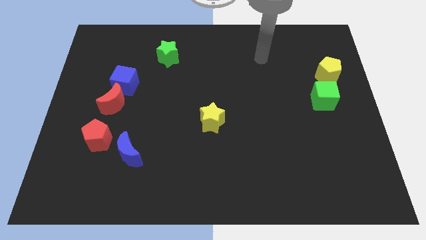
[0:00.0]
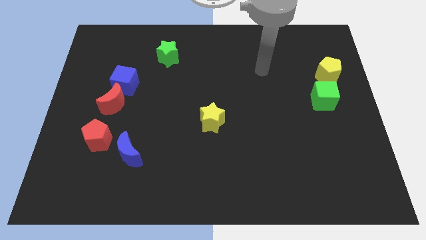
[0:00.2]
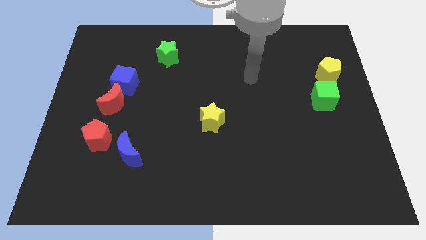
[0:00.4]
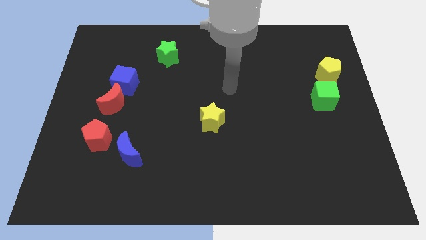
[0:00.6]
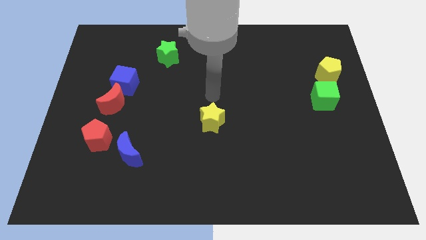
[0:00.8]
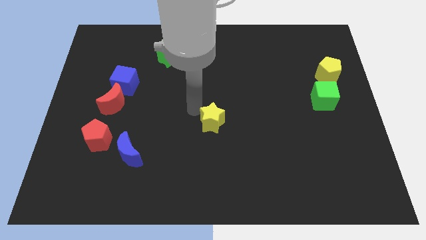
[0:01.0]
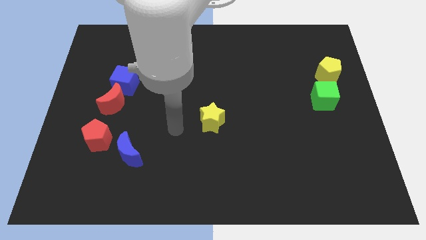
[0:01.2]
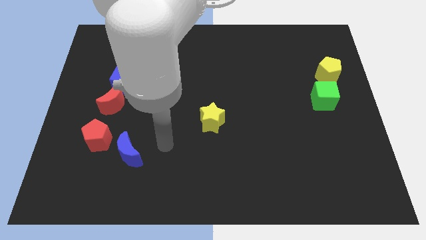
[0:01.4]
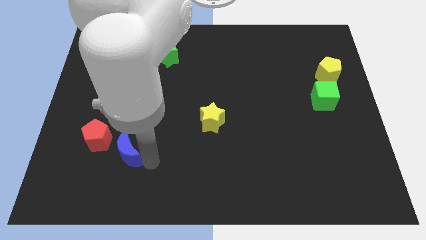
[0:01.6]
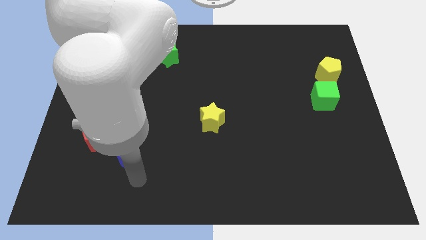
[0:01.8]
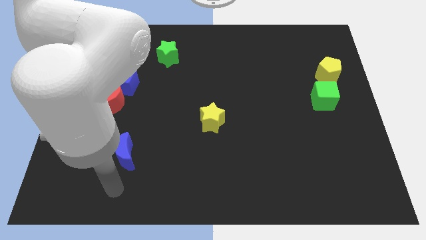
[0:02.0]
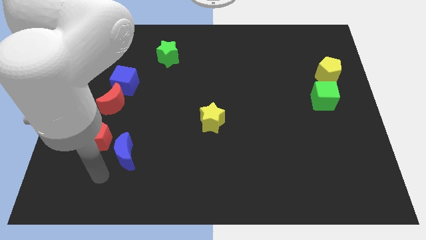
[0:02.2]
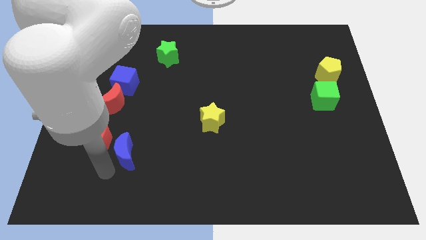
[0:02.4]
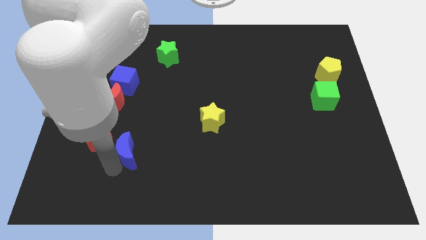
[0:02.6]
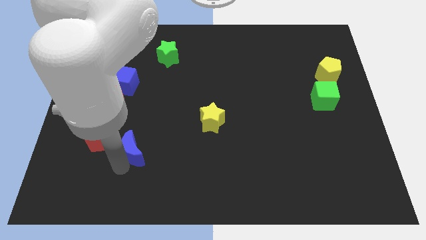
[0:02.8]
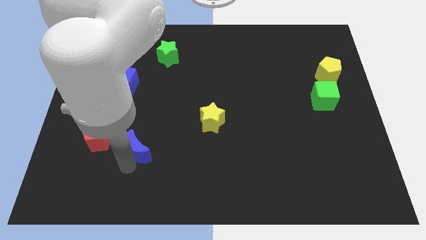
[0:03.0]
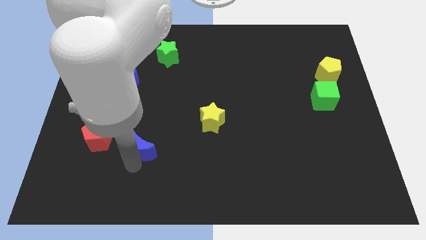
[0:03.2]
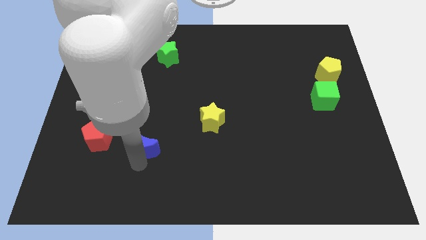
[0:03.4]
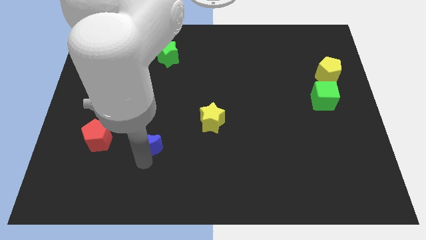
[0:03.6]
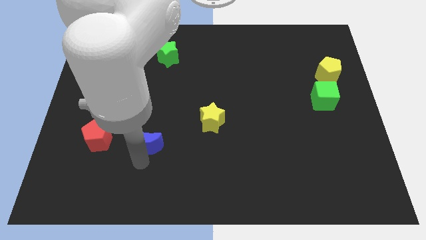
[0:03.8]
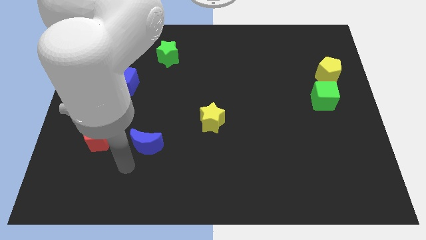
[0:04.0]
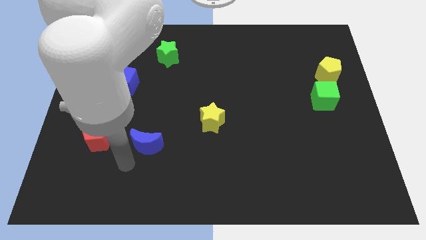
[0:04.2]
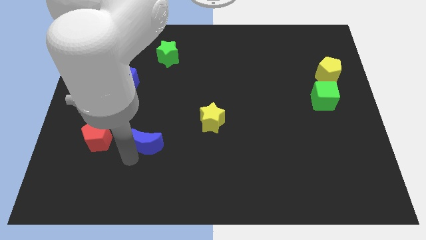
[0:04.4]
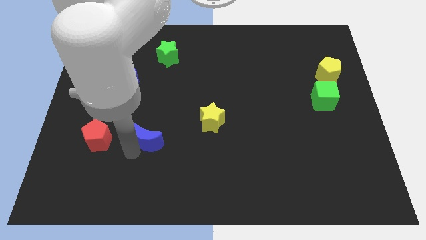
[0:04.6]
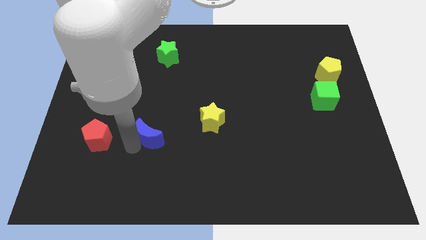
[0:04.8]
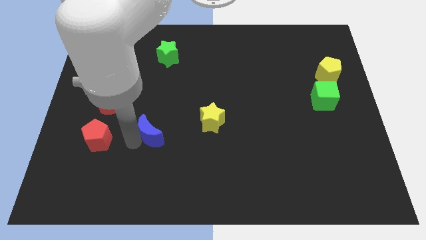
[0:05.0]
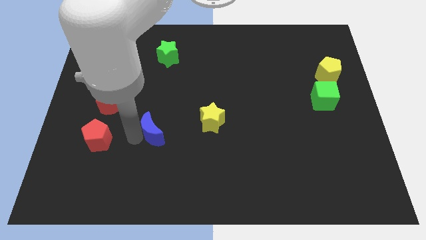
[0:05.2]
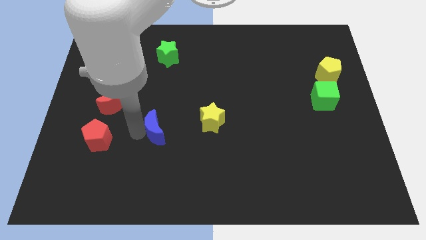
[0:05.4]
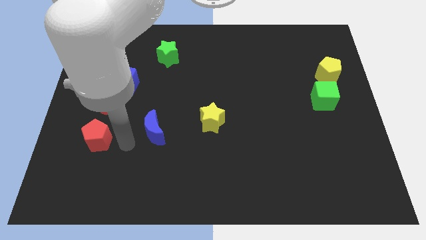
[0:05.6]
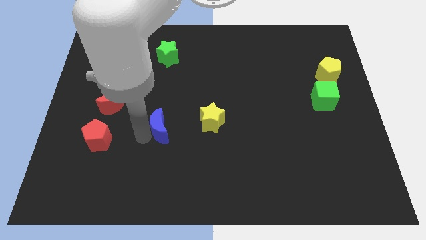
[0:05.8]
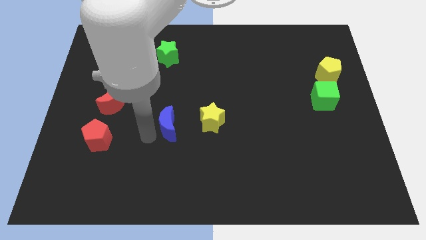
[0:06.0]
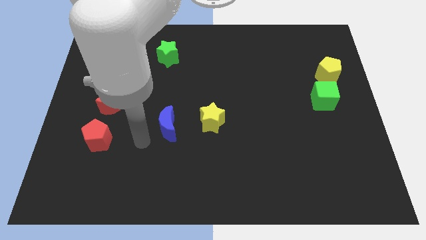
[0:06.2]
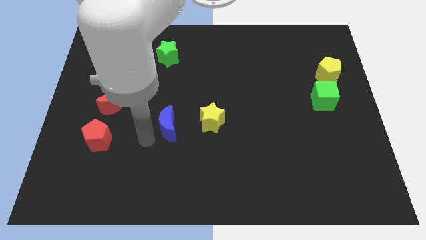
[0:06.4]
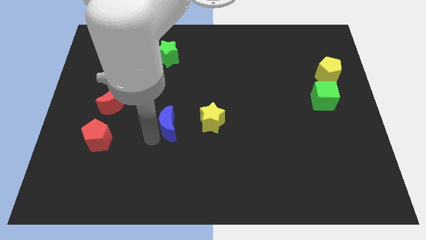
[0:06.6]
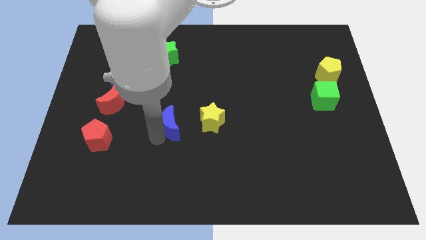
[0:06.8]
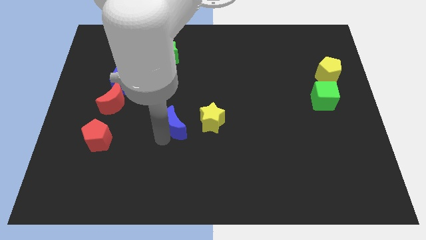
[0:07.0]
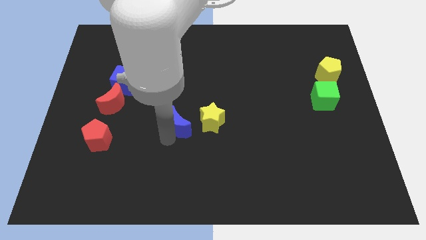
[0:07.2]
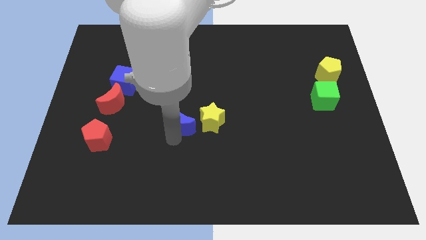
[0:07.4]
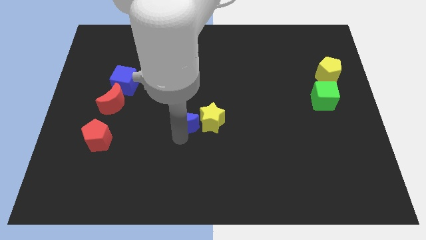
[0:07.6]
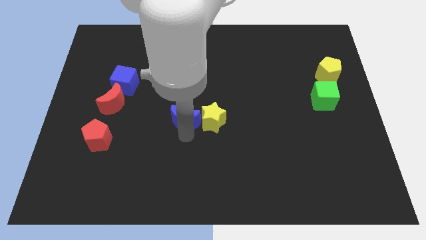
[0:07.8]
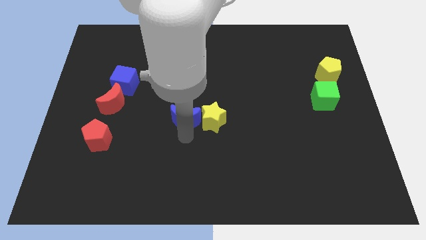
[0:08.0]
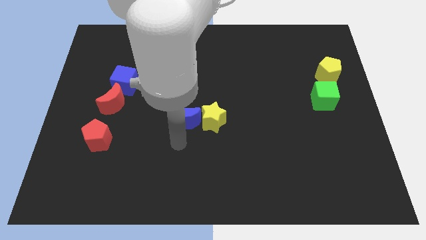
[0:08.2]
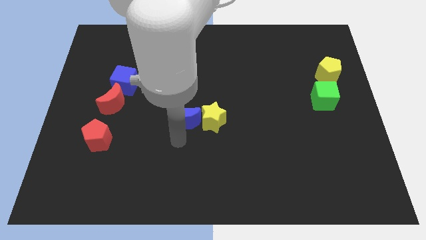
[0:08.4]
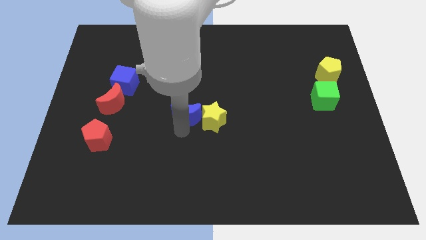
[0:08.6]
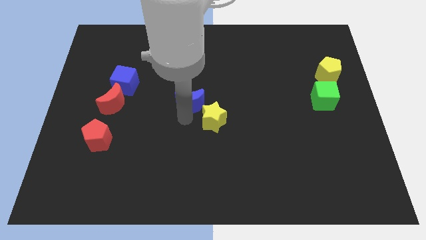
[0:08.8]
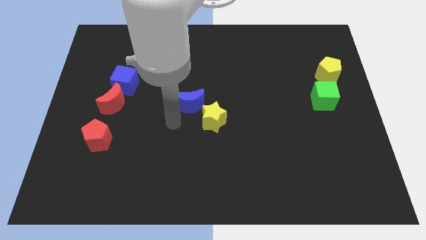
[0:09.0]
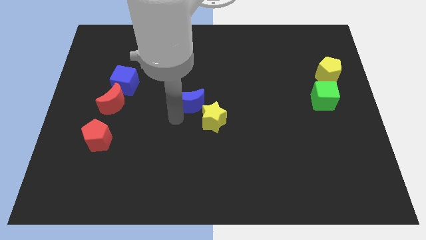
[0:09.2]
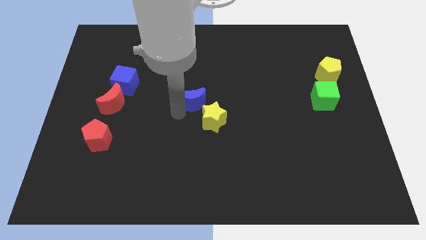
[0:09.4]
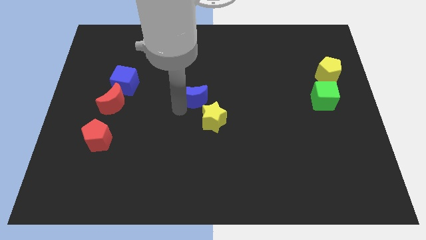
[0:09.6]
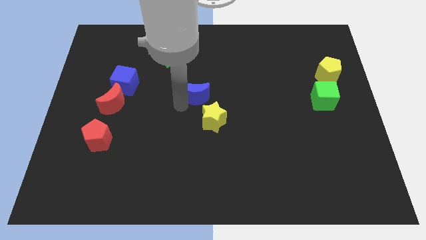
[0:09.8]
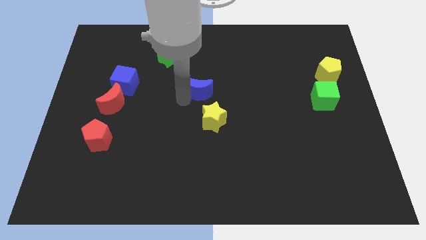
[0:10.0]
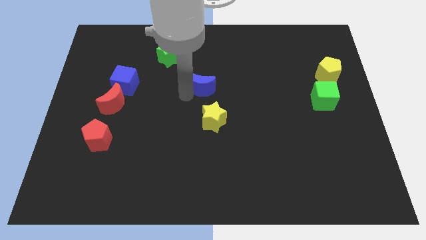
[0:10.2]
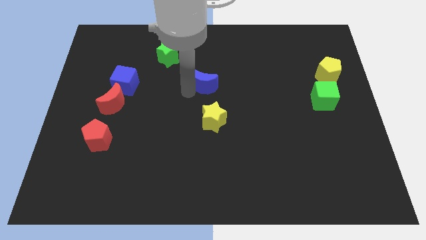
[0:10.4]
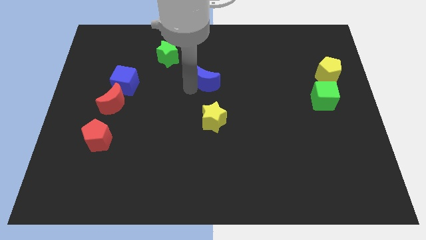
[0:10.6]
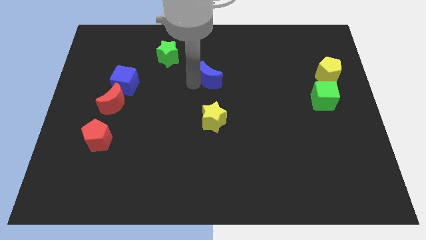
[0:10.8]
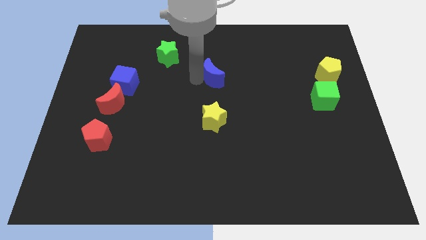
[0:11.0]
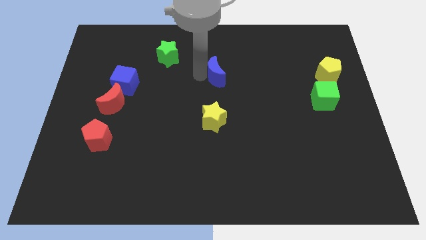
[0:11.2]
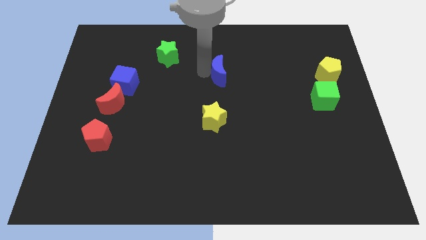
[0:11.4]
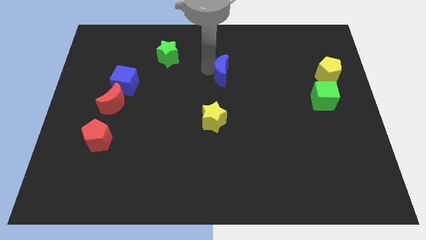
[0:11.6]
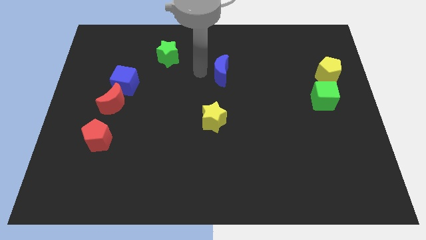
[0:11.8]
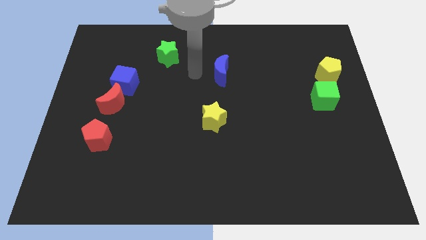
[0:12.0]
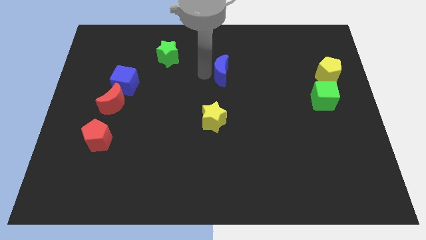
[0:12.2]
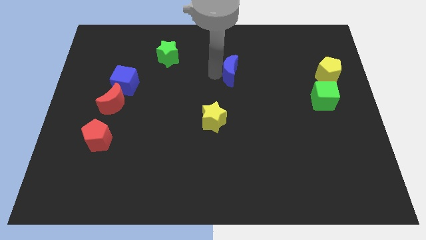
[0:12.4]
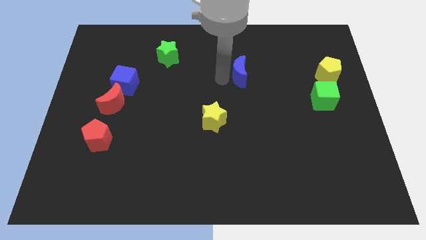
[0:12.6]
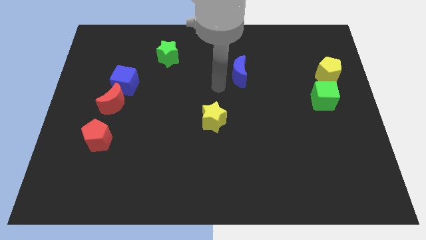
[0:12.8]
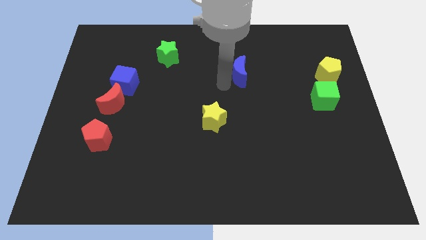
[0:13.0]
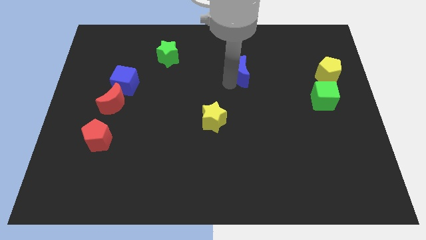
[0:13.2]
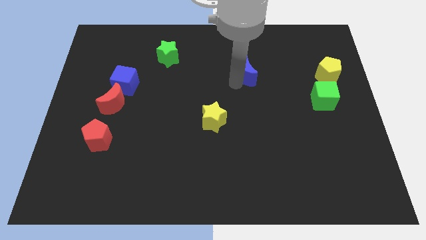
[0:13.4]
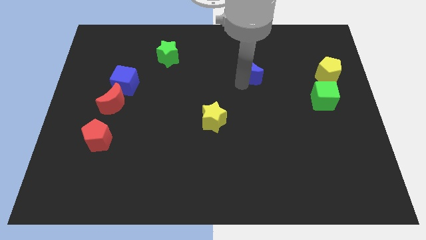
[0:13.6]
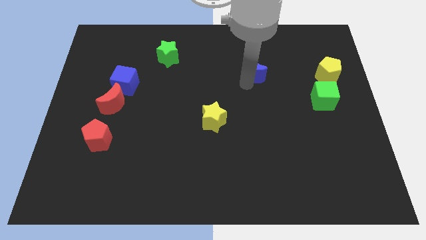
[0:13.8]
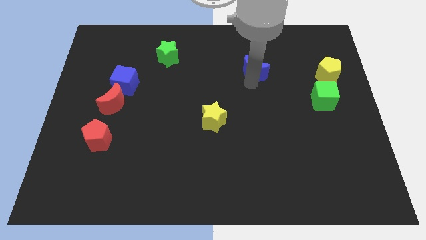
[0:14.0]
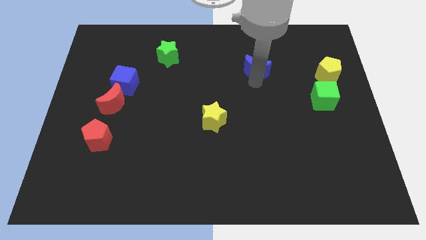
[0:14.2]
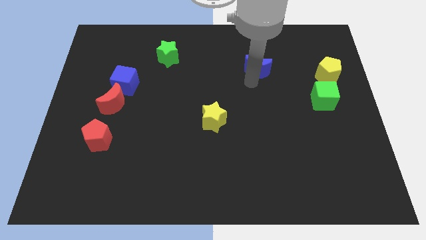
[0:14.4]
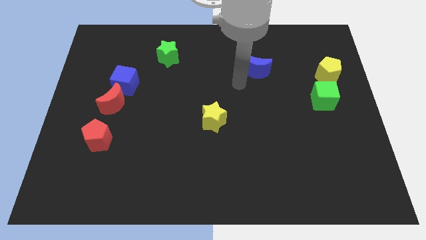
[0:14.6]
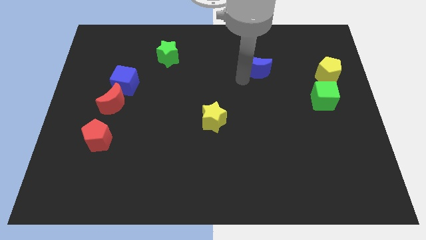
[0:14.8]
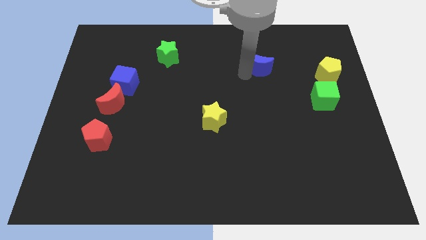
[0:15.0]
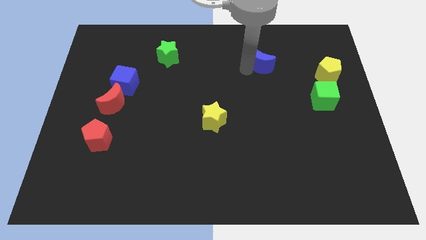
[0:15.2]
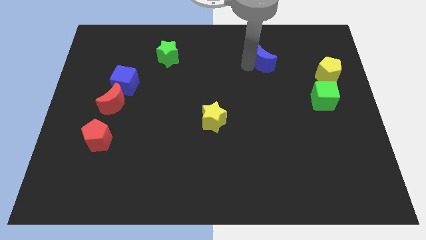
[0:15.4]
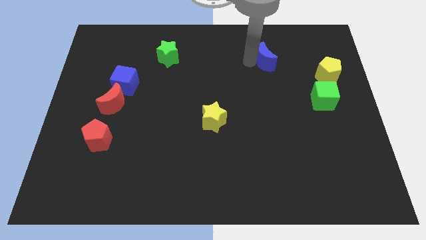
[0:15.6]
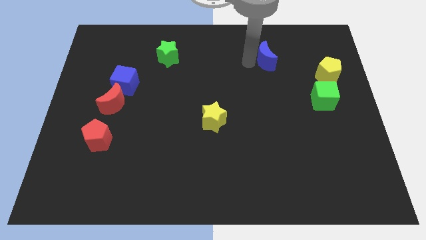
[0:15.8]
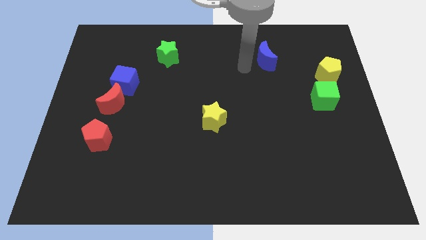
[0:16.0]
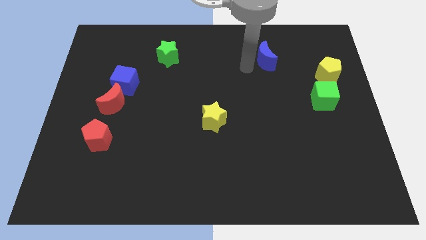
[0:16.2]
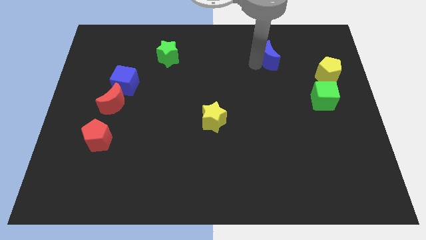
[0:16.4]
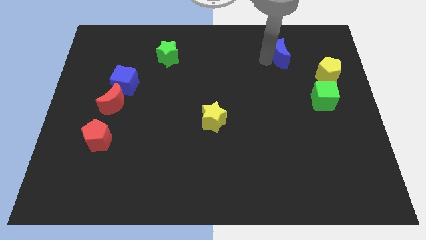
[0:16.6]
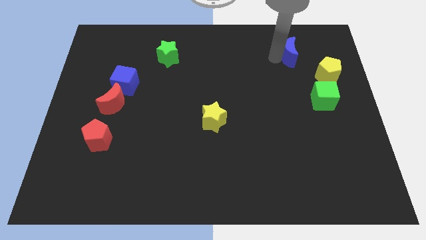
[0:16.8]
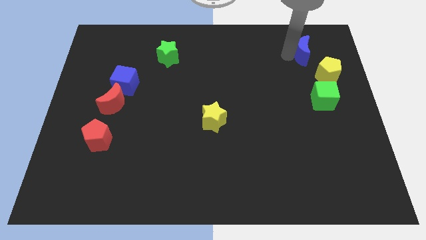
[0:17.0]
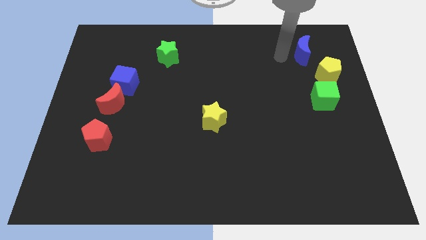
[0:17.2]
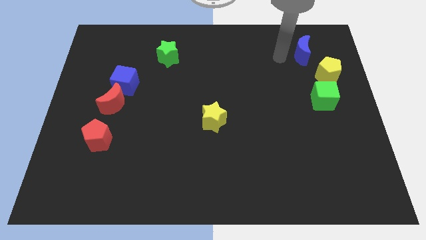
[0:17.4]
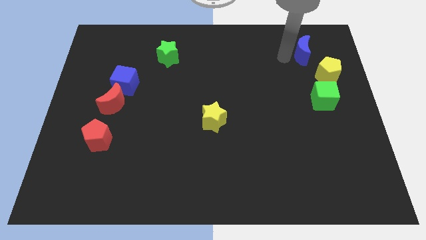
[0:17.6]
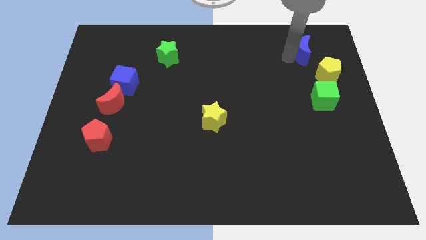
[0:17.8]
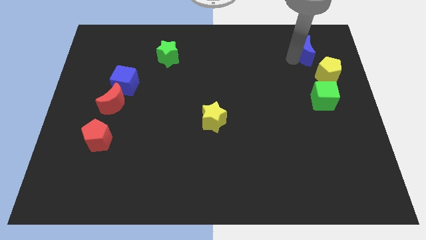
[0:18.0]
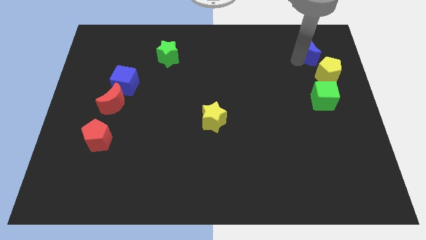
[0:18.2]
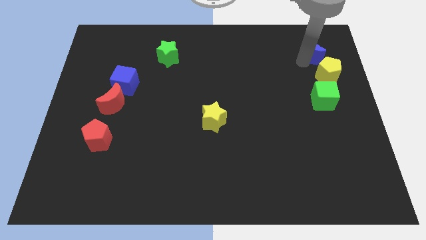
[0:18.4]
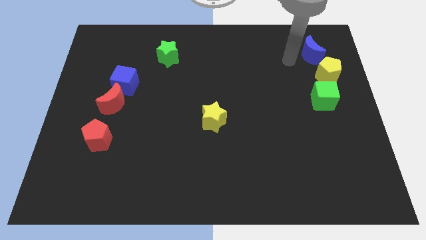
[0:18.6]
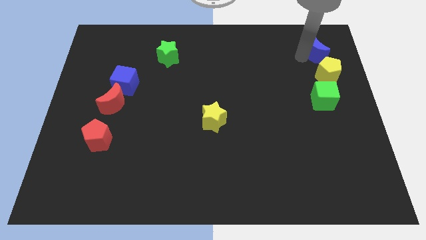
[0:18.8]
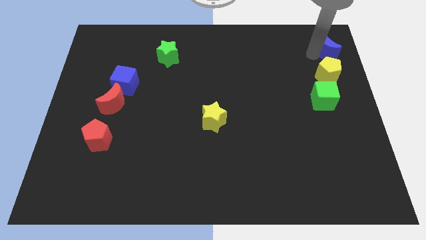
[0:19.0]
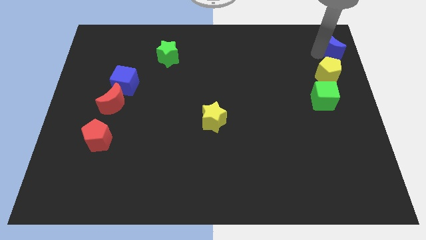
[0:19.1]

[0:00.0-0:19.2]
move the blue moon to the upper right corner
